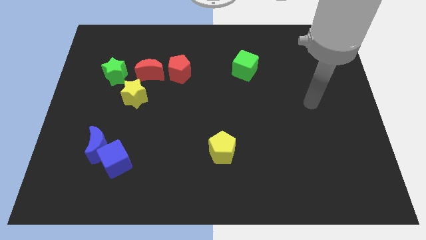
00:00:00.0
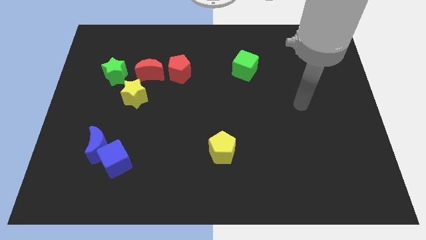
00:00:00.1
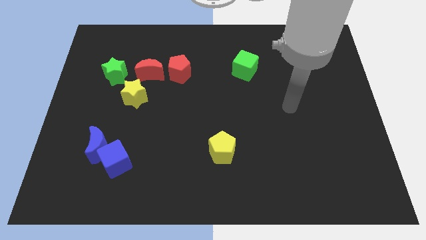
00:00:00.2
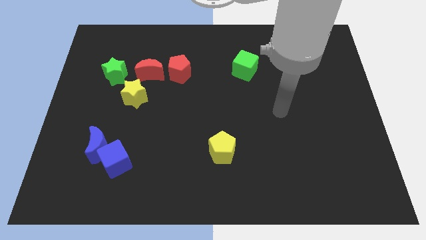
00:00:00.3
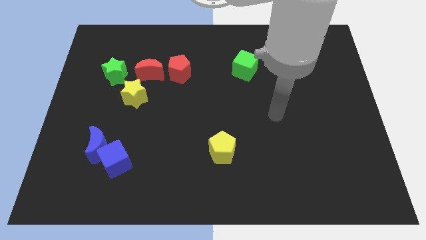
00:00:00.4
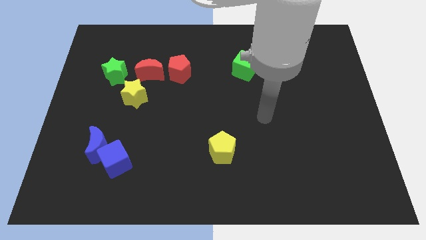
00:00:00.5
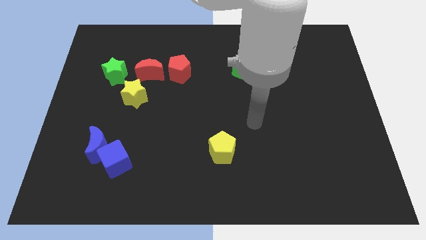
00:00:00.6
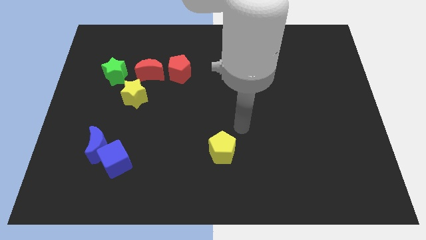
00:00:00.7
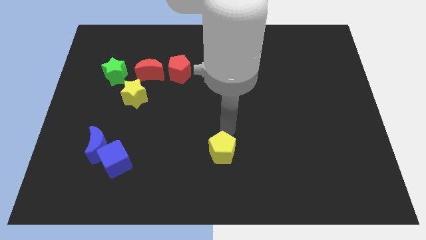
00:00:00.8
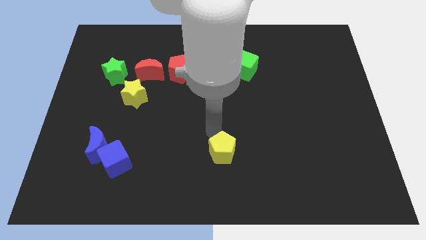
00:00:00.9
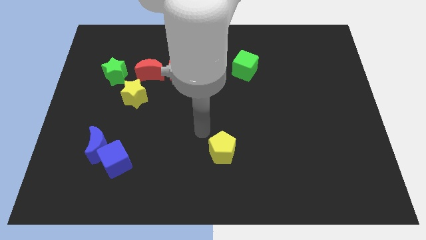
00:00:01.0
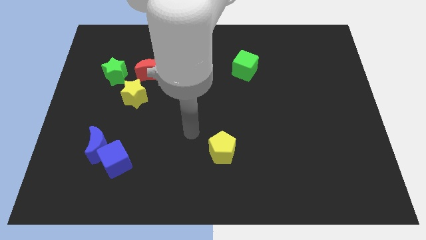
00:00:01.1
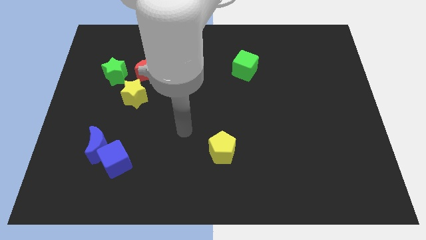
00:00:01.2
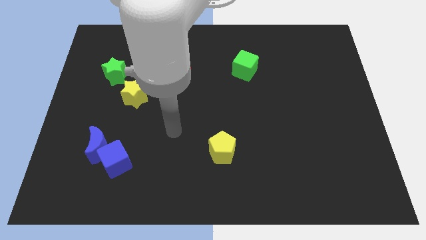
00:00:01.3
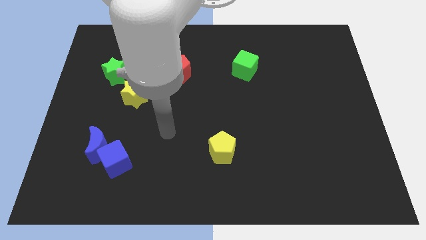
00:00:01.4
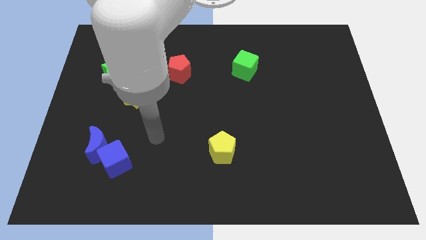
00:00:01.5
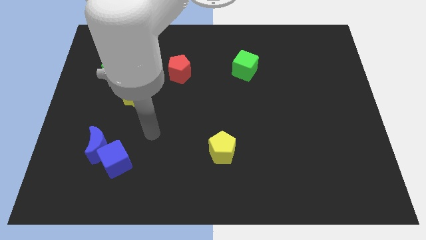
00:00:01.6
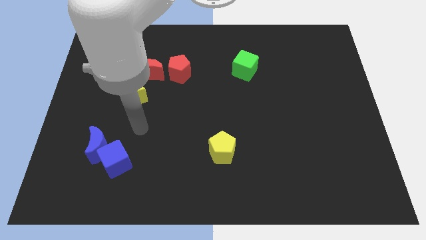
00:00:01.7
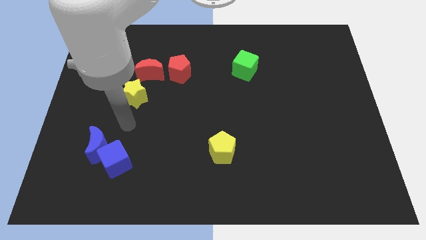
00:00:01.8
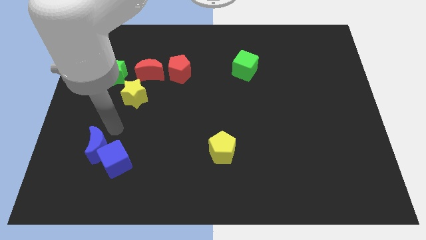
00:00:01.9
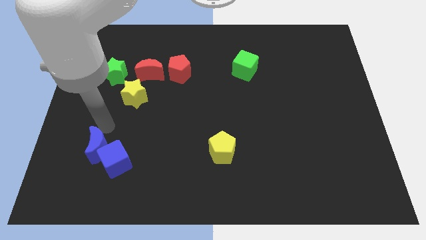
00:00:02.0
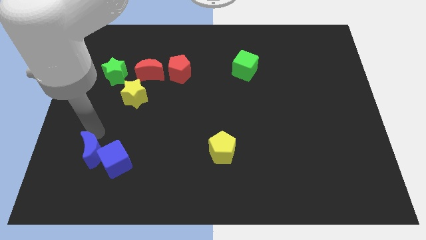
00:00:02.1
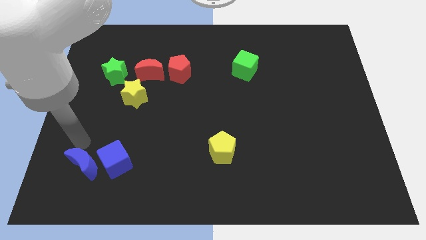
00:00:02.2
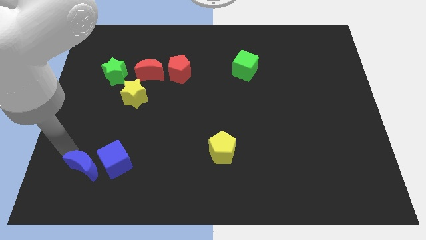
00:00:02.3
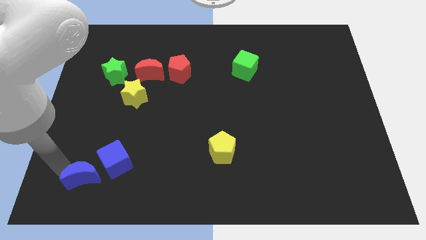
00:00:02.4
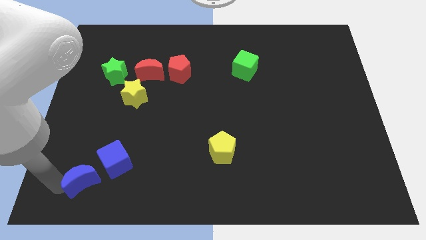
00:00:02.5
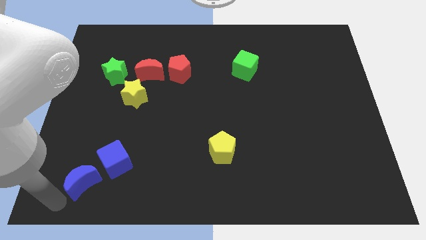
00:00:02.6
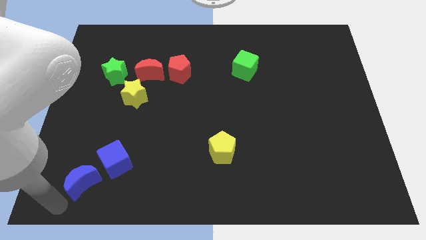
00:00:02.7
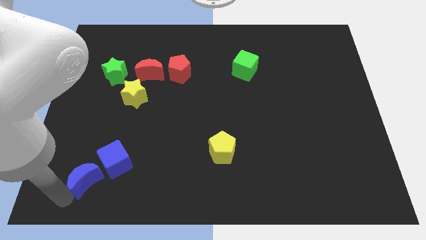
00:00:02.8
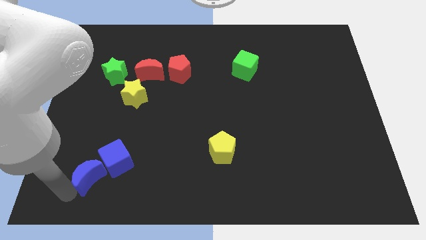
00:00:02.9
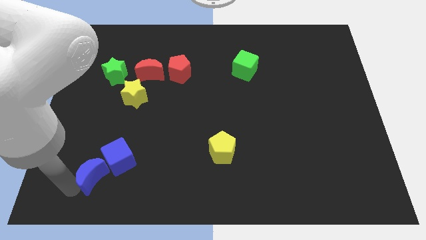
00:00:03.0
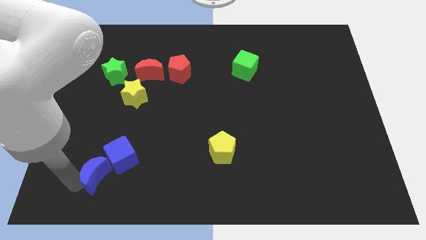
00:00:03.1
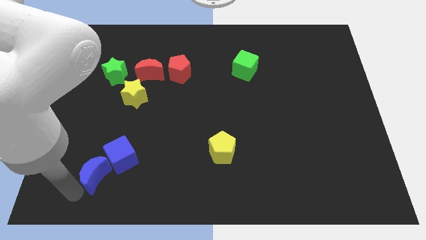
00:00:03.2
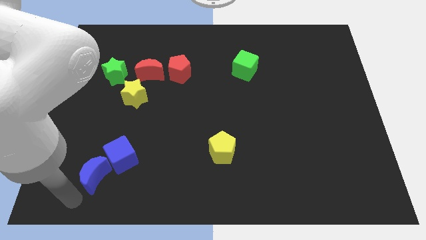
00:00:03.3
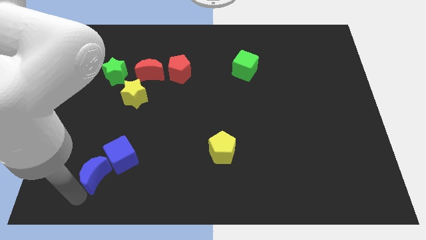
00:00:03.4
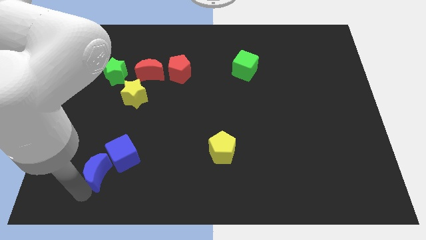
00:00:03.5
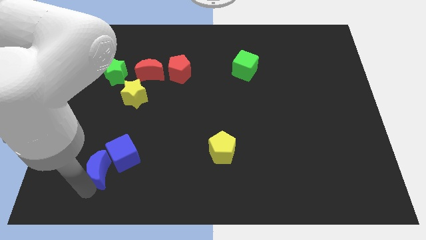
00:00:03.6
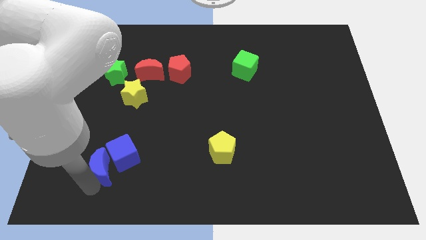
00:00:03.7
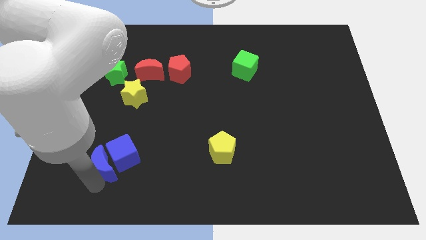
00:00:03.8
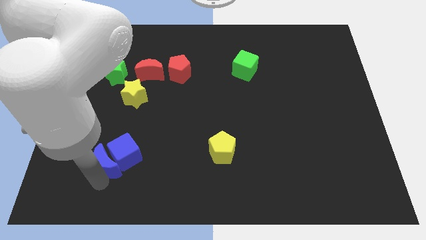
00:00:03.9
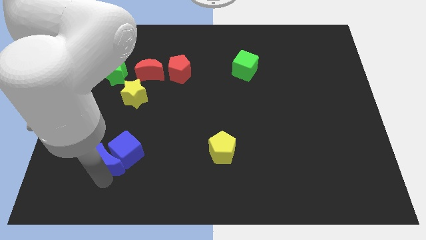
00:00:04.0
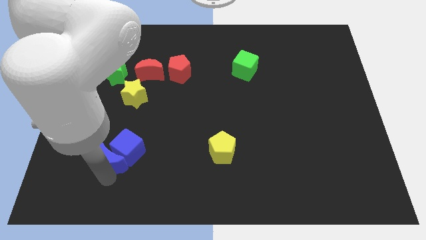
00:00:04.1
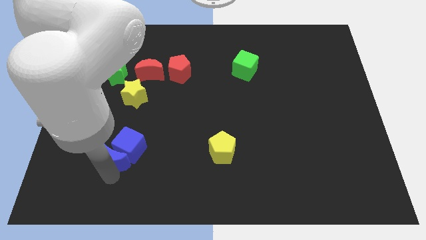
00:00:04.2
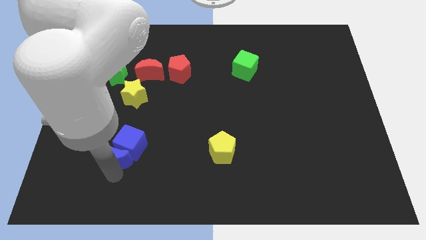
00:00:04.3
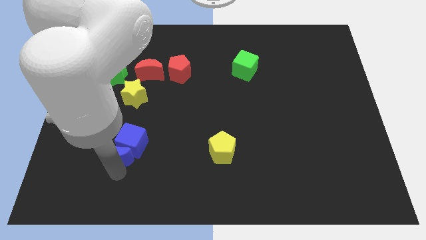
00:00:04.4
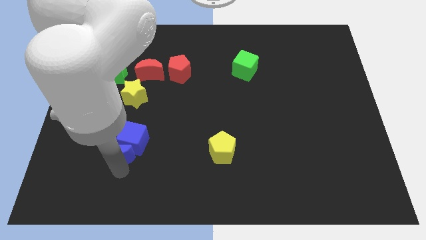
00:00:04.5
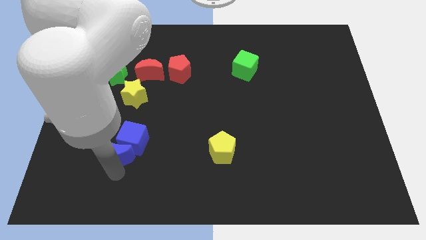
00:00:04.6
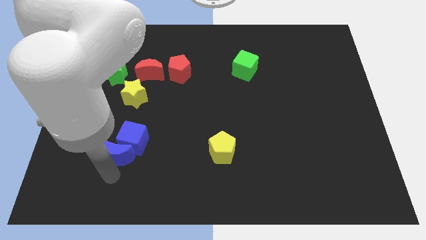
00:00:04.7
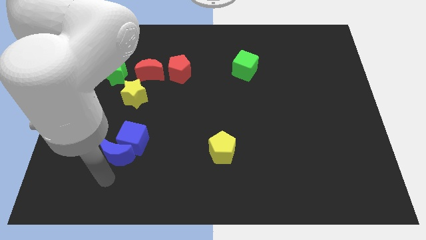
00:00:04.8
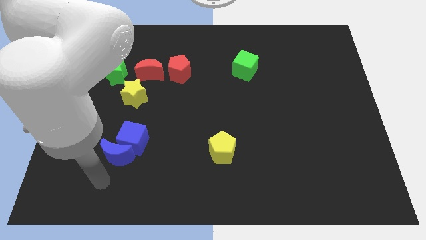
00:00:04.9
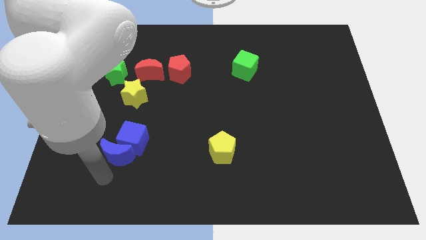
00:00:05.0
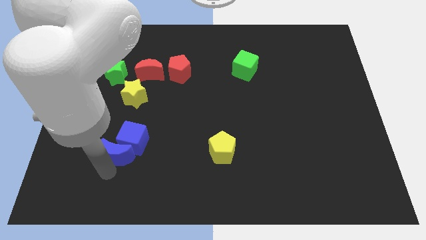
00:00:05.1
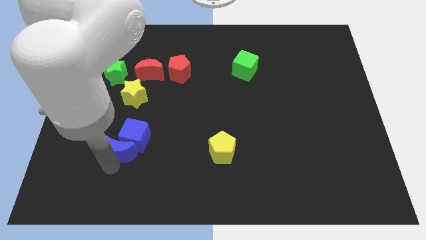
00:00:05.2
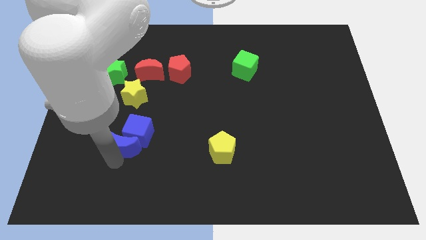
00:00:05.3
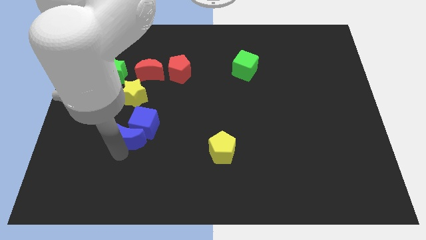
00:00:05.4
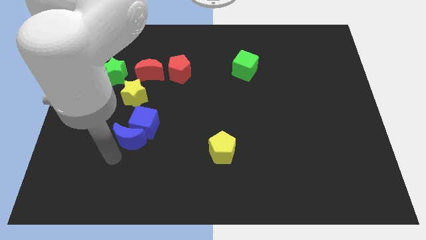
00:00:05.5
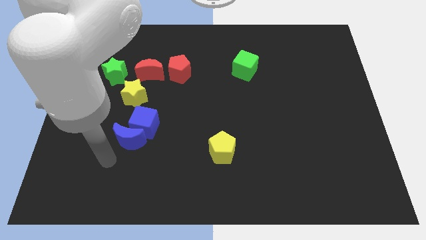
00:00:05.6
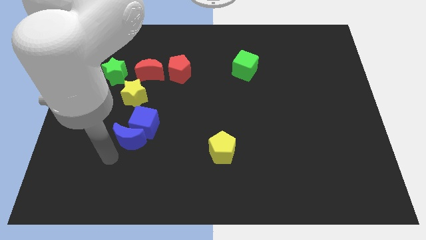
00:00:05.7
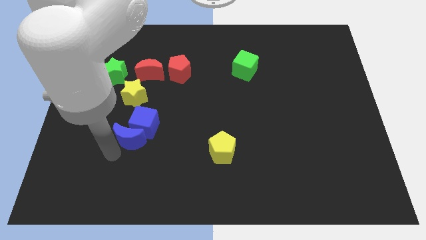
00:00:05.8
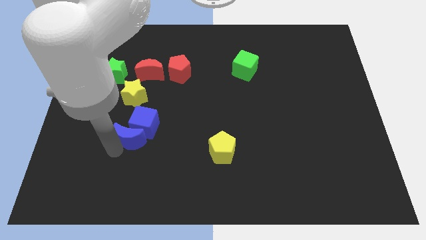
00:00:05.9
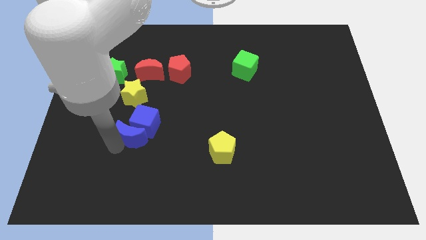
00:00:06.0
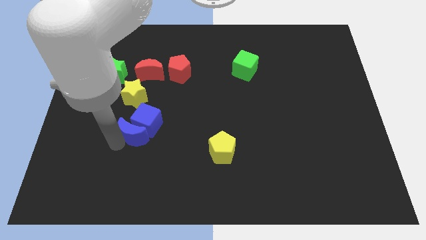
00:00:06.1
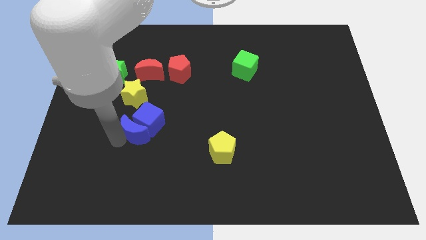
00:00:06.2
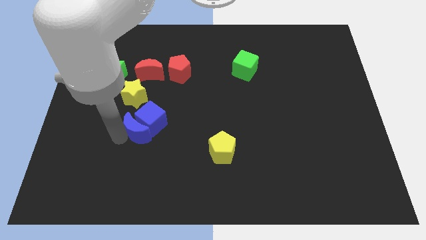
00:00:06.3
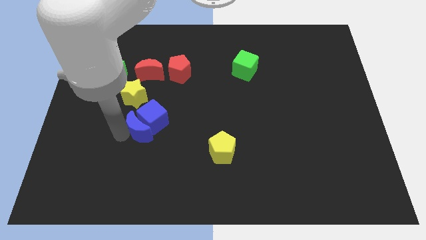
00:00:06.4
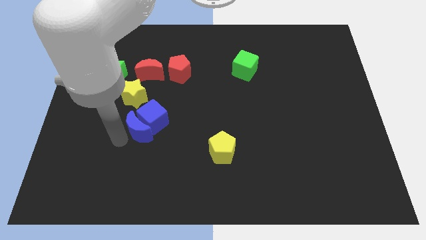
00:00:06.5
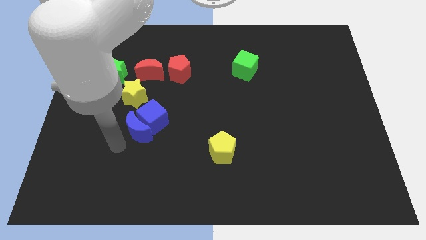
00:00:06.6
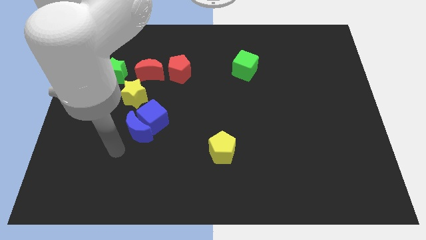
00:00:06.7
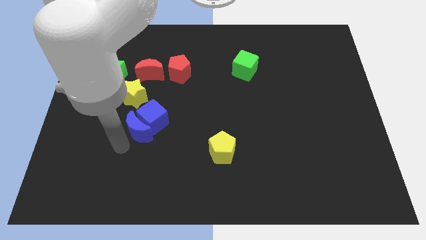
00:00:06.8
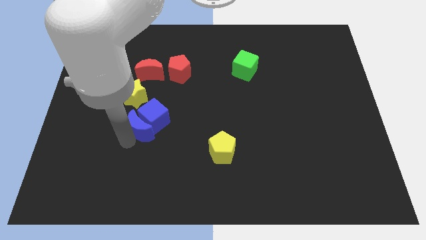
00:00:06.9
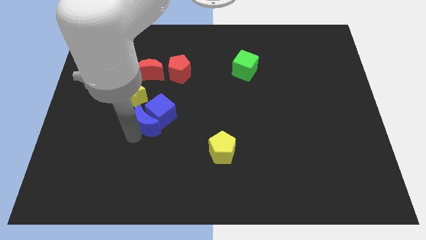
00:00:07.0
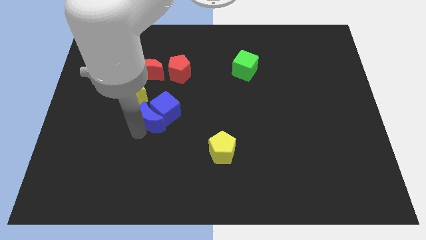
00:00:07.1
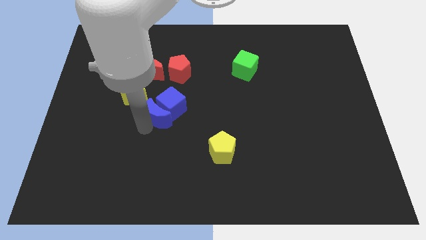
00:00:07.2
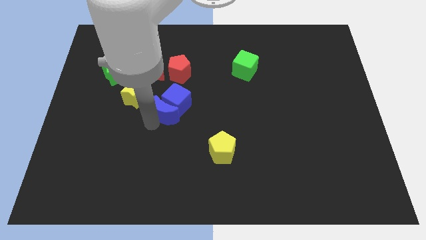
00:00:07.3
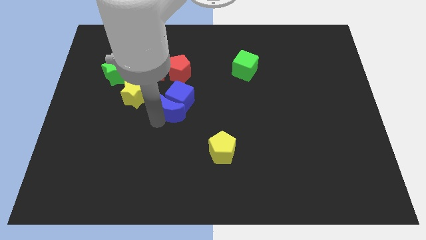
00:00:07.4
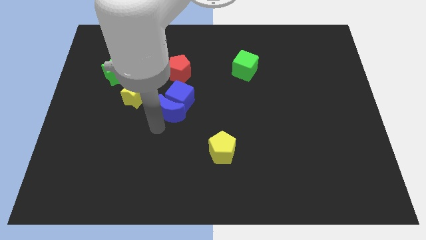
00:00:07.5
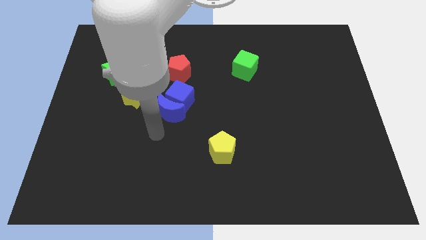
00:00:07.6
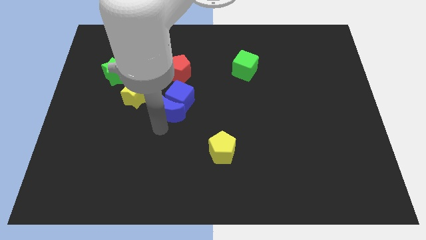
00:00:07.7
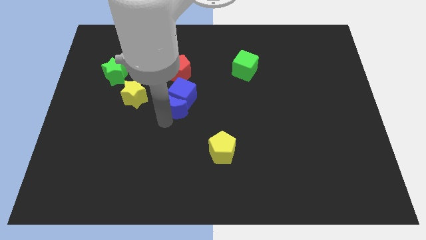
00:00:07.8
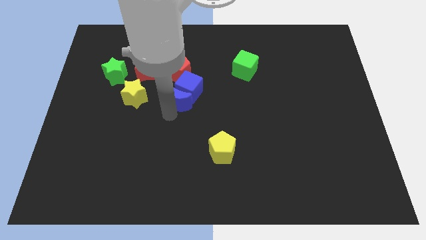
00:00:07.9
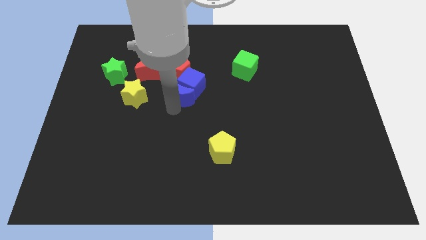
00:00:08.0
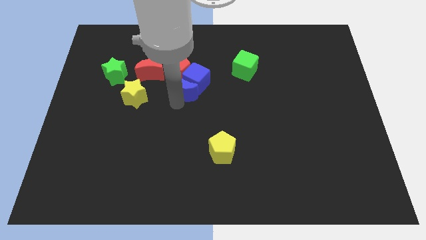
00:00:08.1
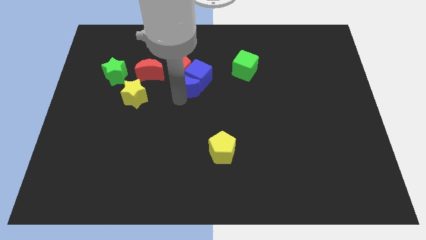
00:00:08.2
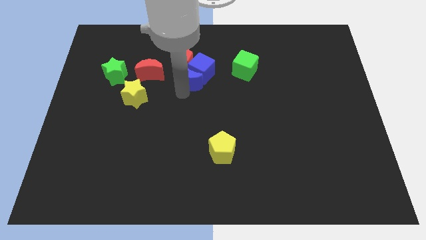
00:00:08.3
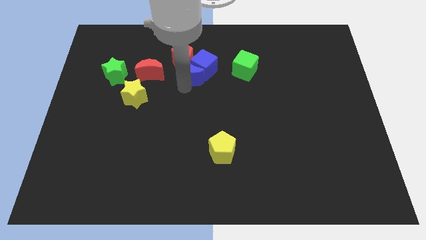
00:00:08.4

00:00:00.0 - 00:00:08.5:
move the blue moon left of the green cube
